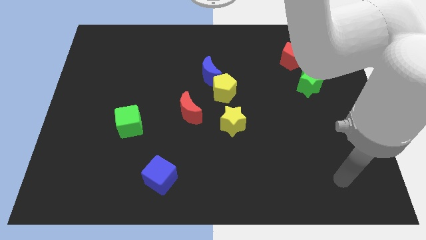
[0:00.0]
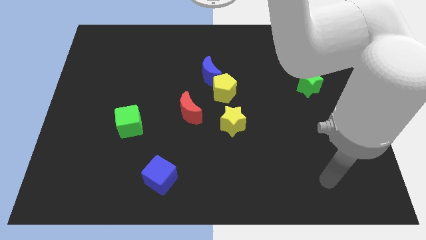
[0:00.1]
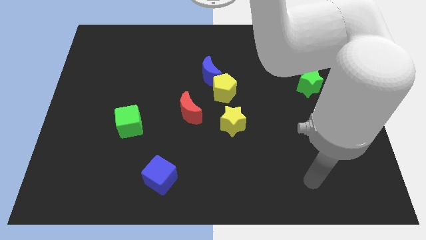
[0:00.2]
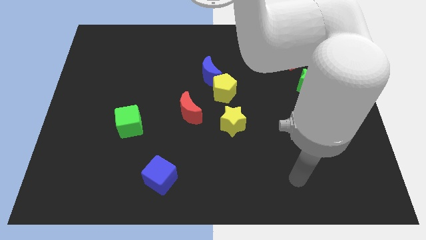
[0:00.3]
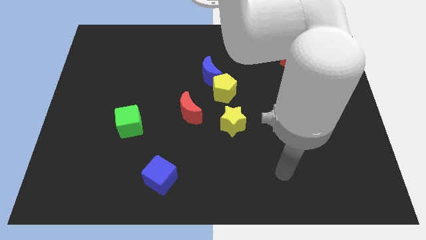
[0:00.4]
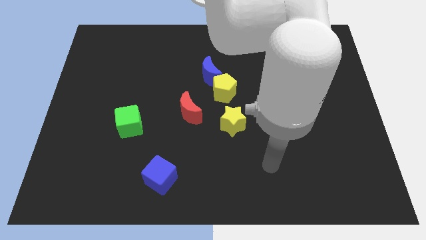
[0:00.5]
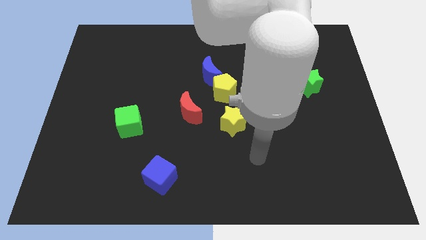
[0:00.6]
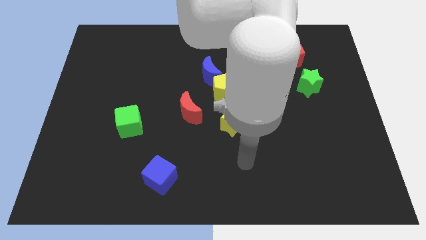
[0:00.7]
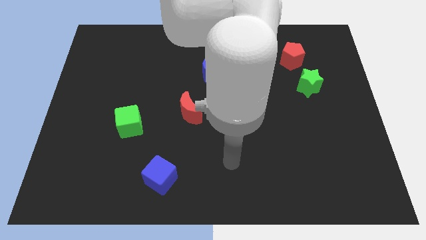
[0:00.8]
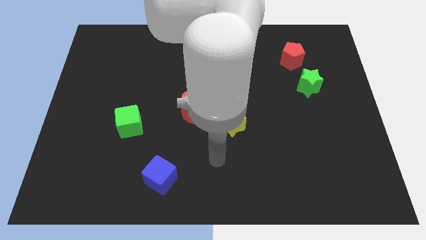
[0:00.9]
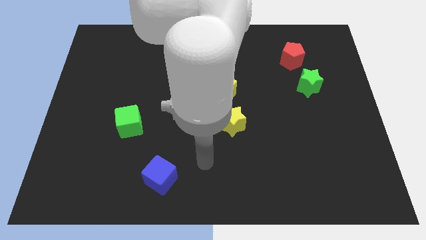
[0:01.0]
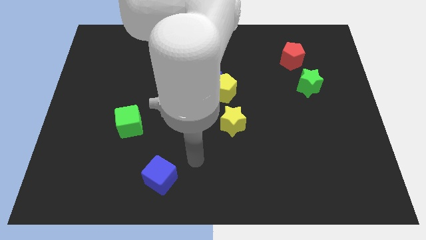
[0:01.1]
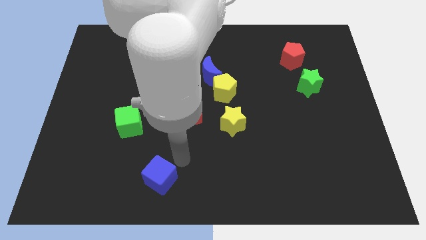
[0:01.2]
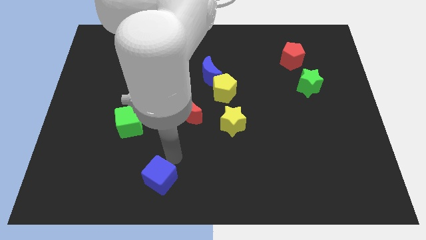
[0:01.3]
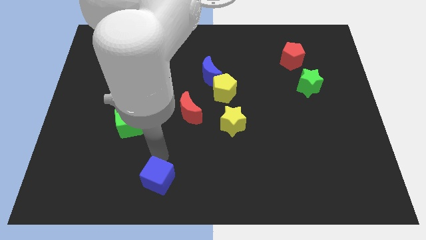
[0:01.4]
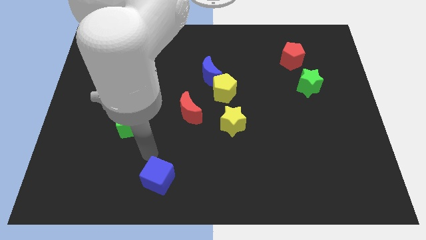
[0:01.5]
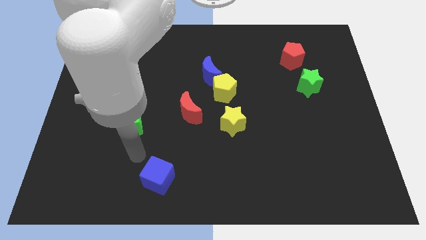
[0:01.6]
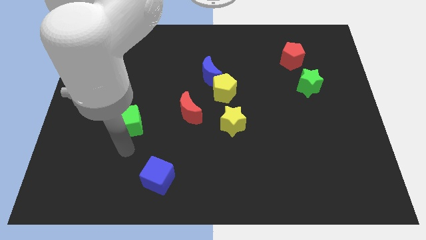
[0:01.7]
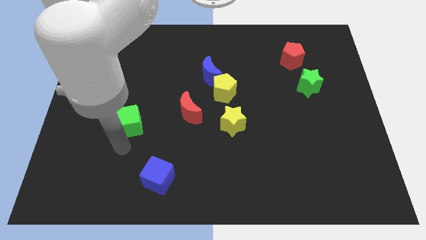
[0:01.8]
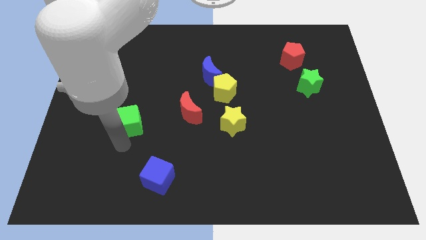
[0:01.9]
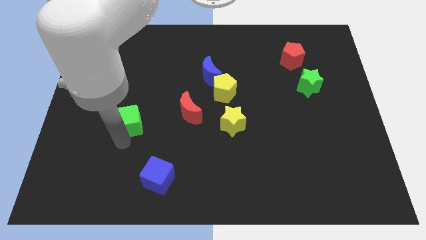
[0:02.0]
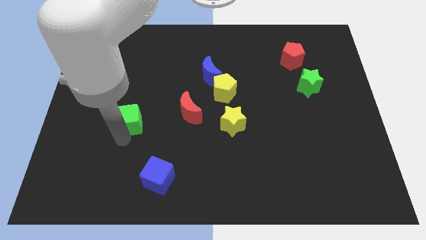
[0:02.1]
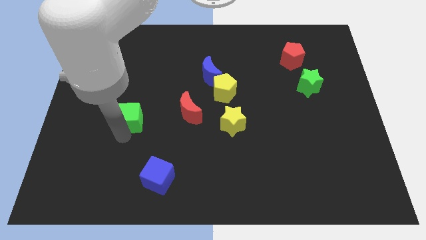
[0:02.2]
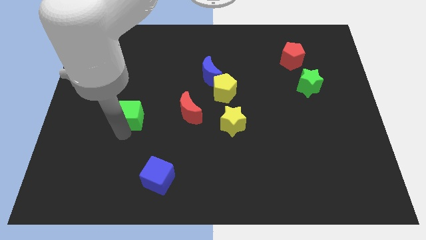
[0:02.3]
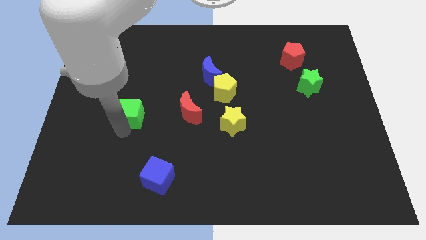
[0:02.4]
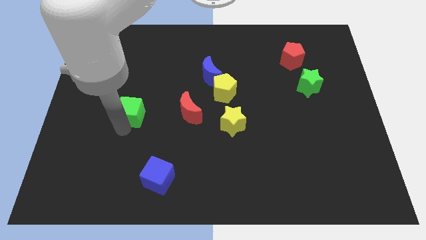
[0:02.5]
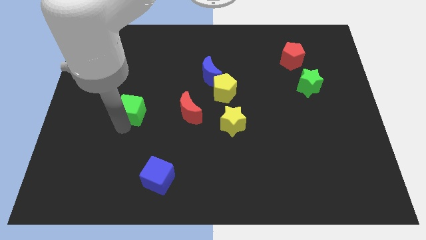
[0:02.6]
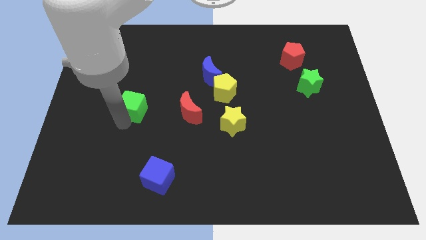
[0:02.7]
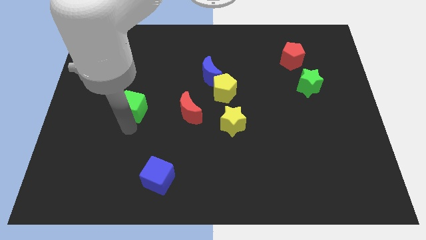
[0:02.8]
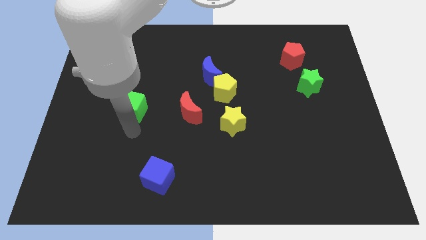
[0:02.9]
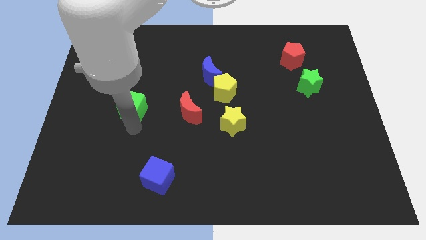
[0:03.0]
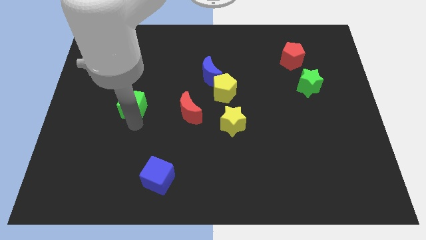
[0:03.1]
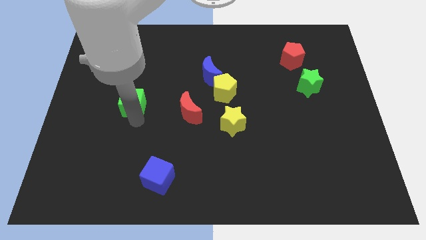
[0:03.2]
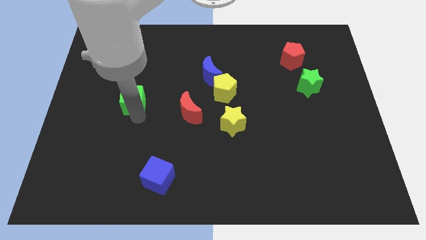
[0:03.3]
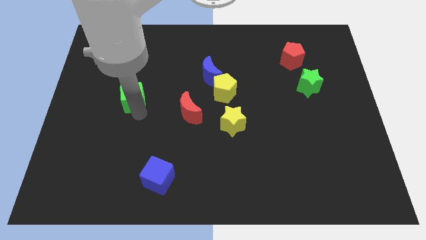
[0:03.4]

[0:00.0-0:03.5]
push the green cube up a little

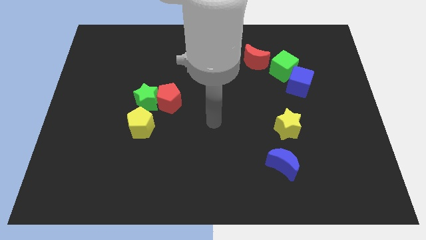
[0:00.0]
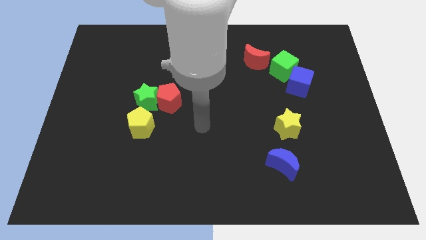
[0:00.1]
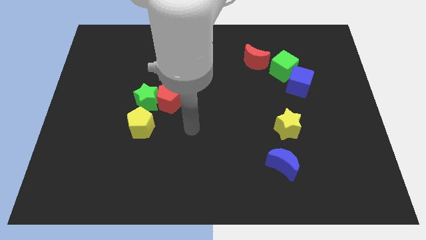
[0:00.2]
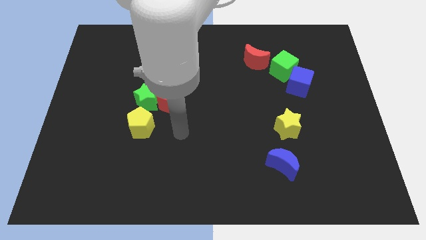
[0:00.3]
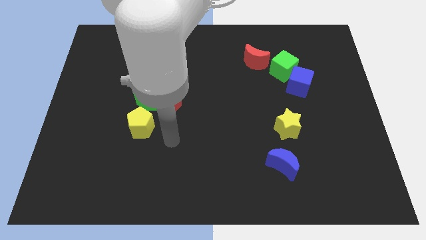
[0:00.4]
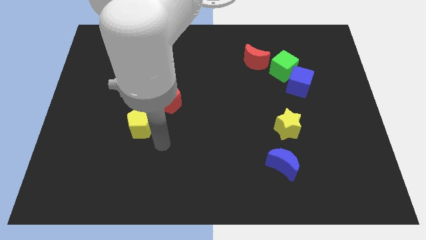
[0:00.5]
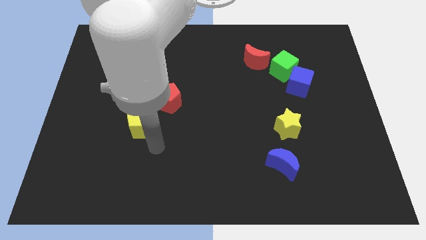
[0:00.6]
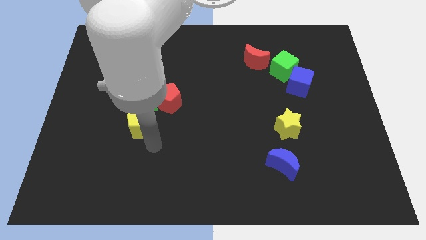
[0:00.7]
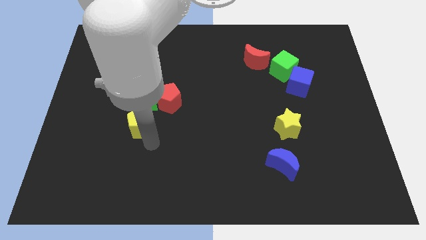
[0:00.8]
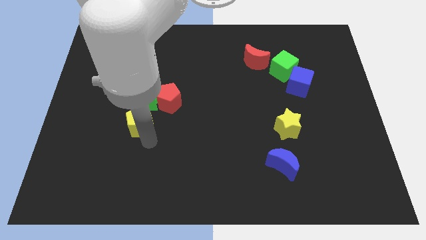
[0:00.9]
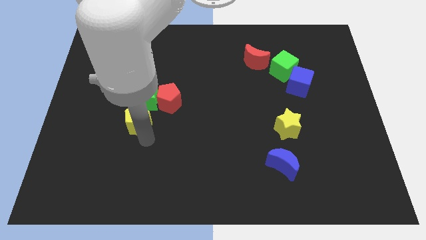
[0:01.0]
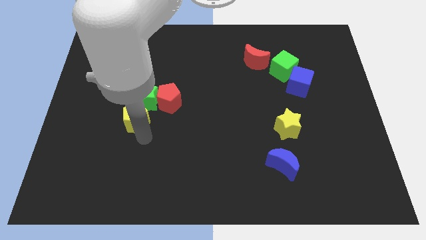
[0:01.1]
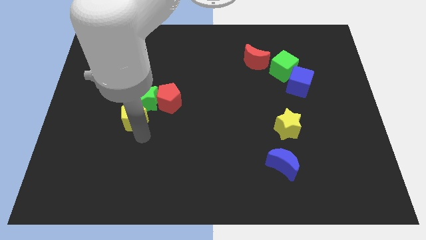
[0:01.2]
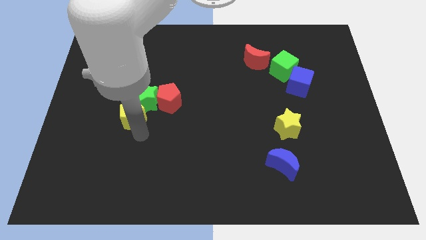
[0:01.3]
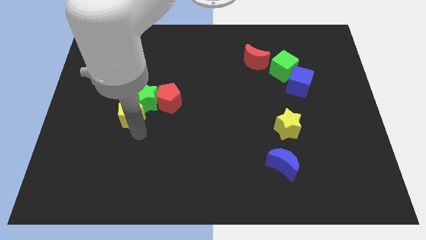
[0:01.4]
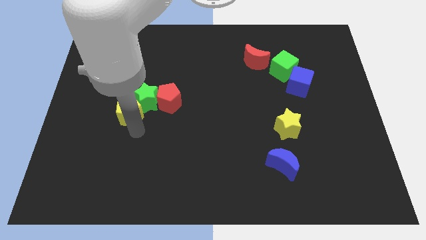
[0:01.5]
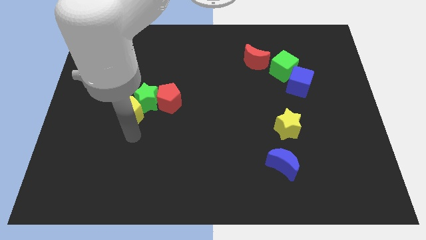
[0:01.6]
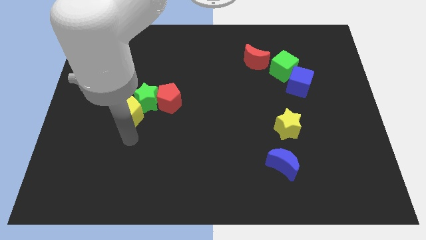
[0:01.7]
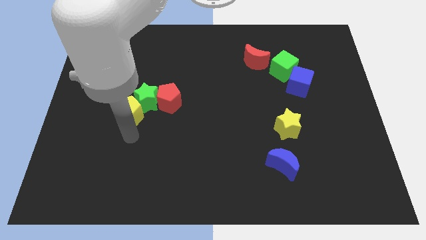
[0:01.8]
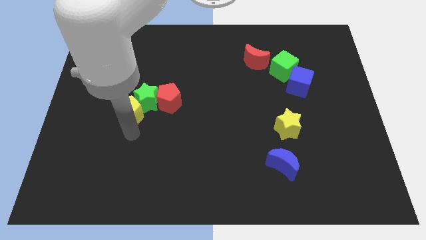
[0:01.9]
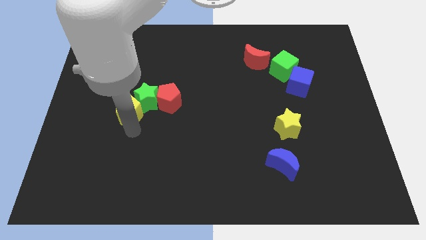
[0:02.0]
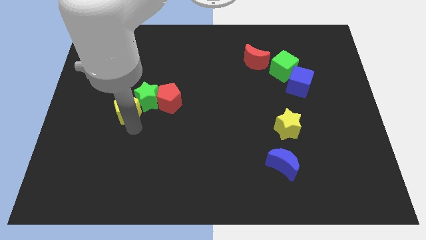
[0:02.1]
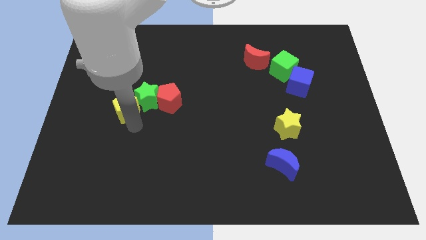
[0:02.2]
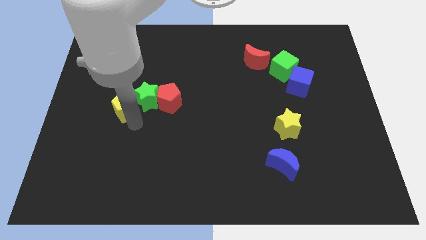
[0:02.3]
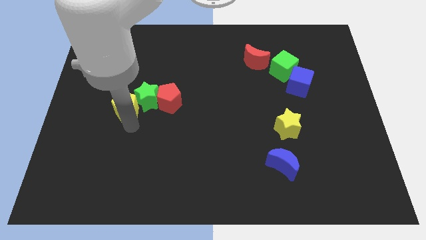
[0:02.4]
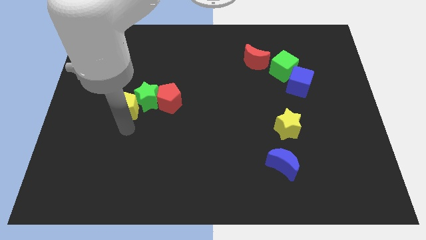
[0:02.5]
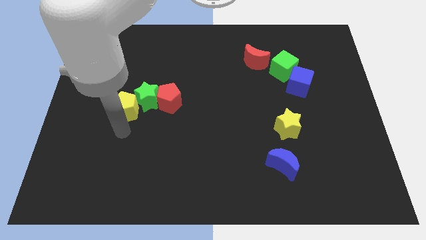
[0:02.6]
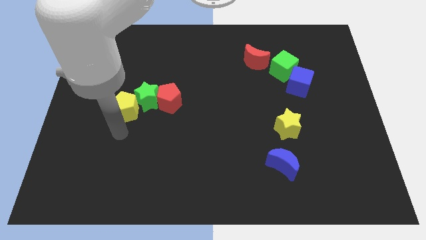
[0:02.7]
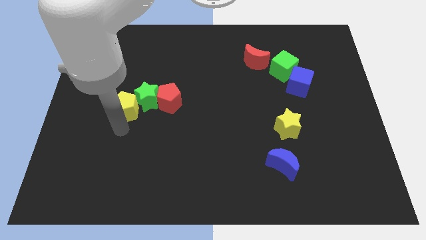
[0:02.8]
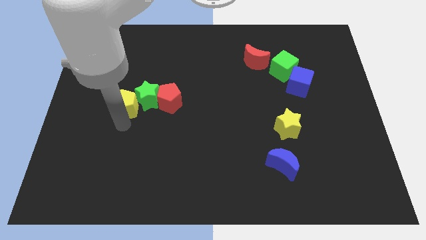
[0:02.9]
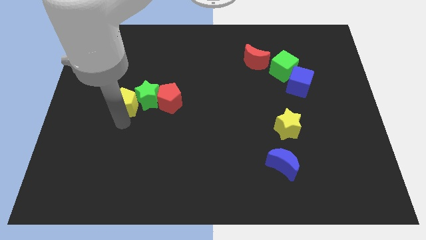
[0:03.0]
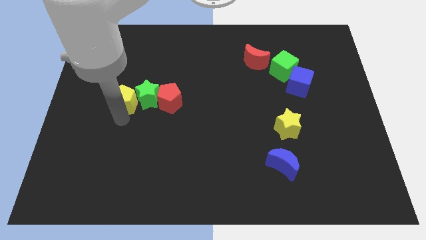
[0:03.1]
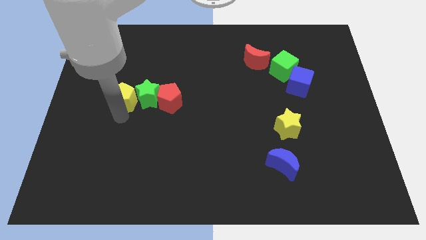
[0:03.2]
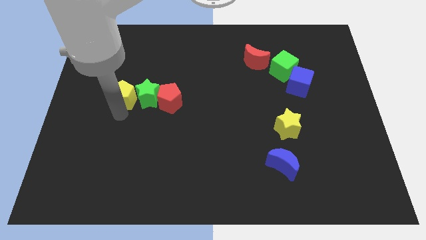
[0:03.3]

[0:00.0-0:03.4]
slightly move the yellow pentagon up

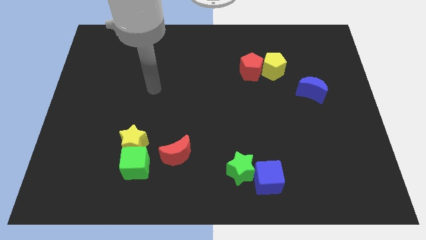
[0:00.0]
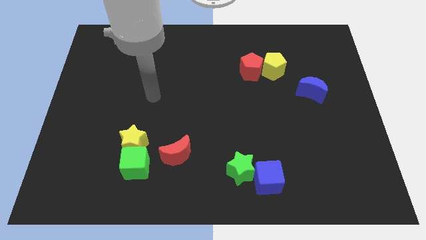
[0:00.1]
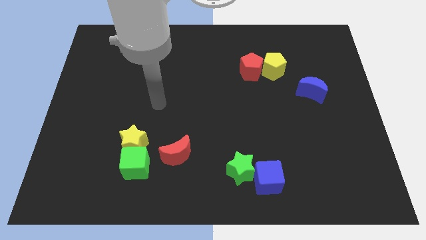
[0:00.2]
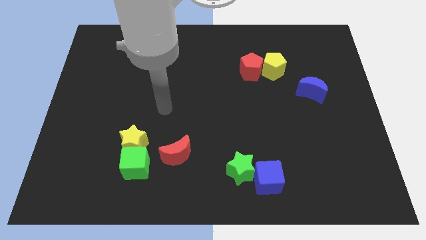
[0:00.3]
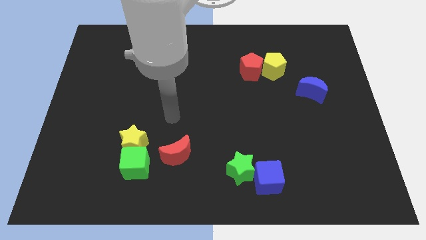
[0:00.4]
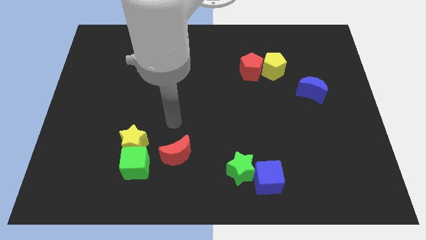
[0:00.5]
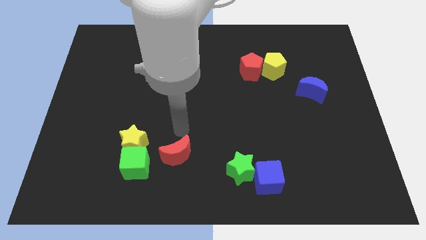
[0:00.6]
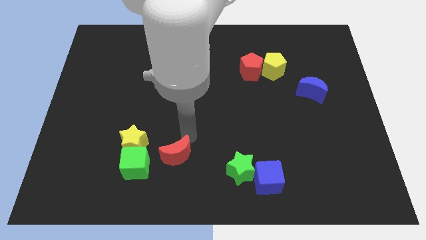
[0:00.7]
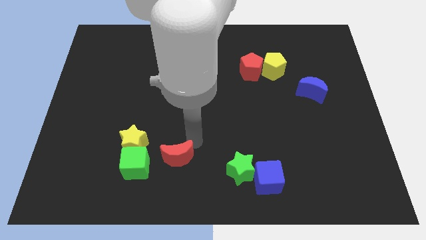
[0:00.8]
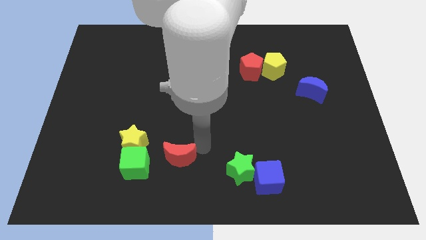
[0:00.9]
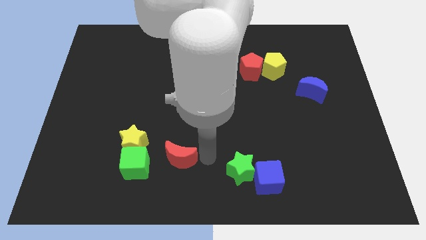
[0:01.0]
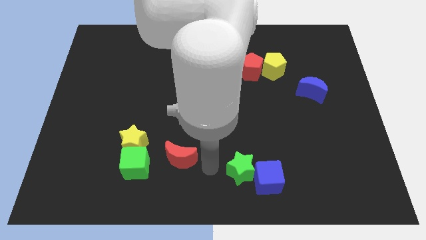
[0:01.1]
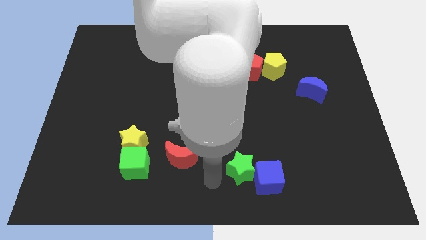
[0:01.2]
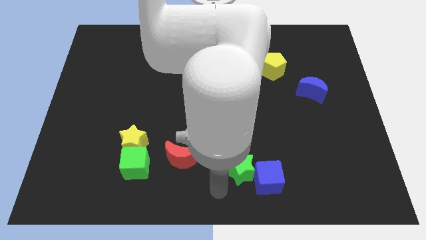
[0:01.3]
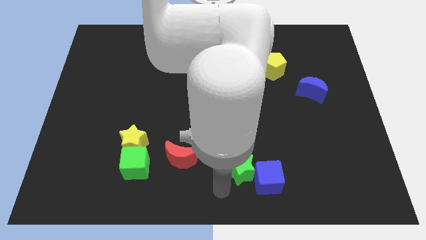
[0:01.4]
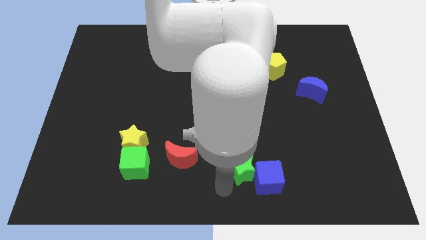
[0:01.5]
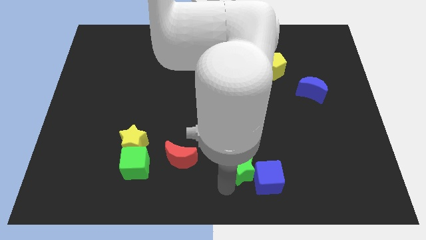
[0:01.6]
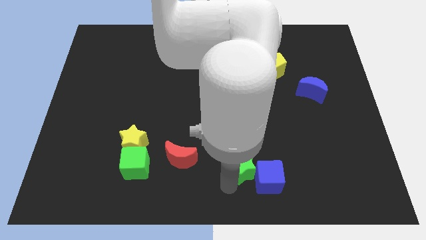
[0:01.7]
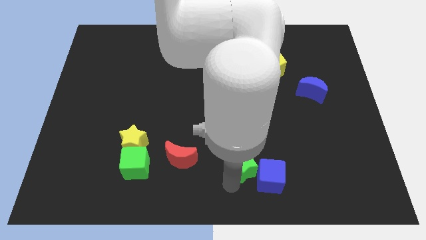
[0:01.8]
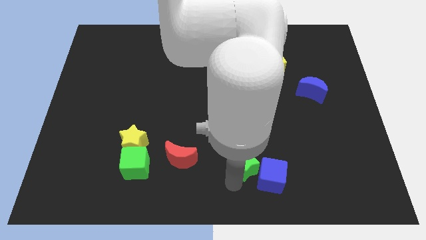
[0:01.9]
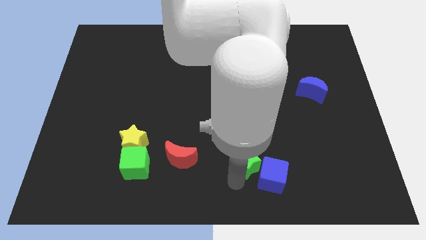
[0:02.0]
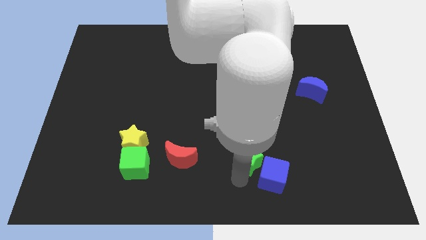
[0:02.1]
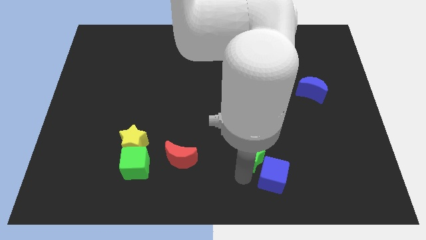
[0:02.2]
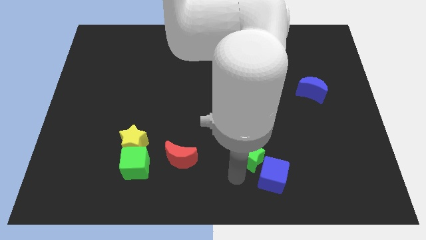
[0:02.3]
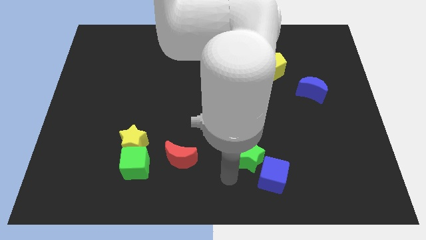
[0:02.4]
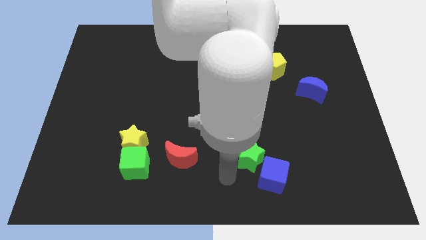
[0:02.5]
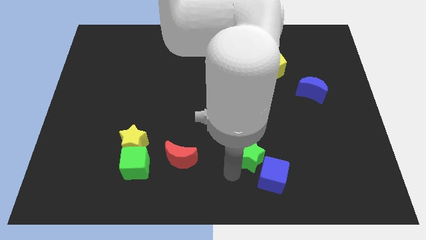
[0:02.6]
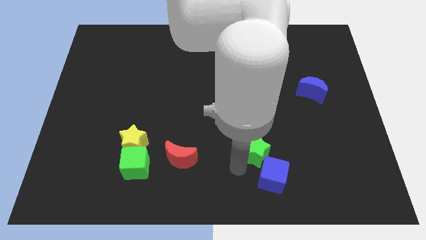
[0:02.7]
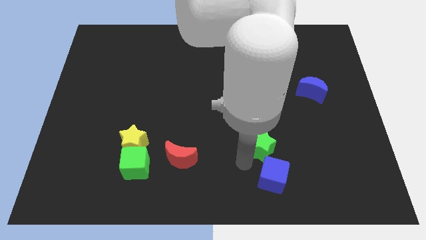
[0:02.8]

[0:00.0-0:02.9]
move the green star a little bit upwards and to the right diagonally
